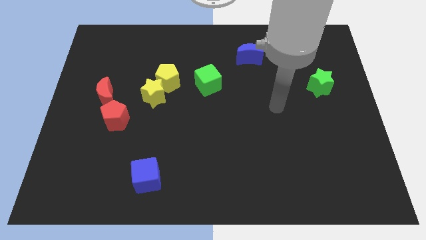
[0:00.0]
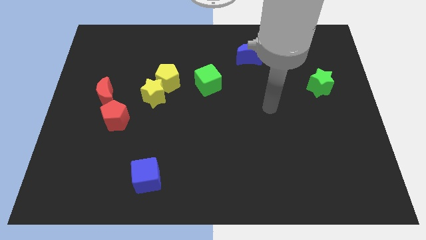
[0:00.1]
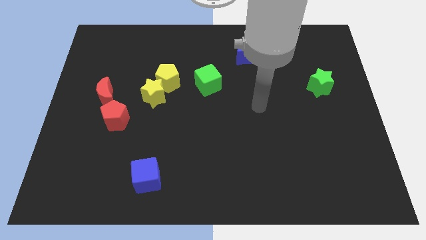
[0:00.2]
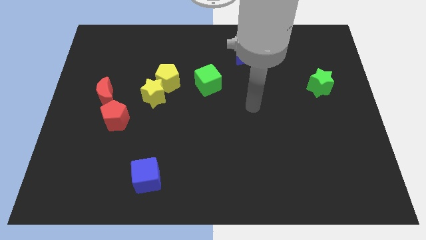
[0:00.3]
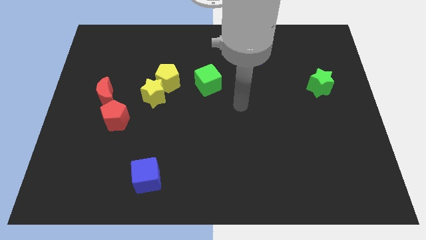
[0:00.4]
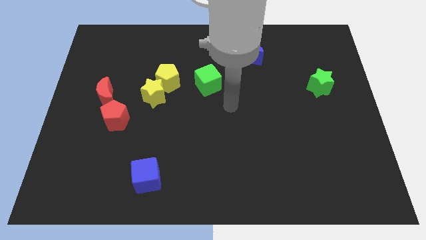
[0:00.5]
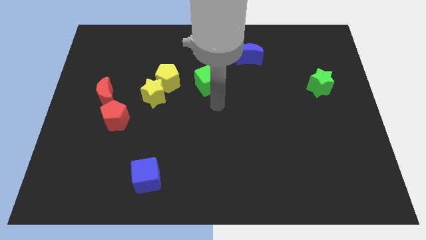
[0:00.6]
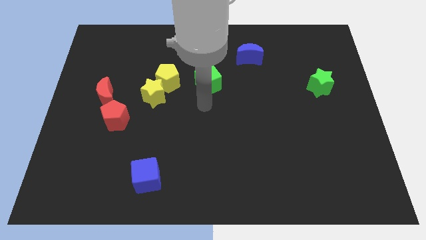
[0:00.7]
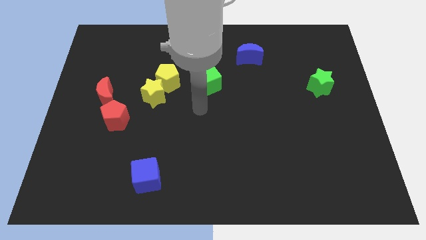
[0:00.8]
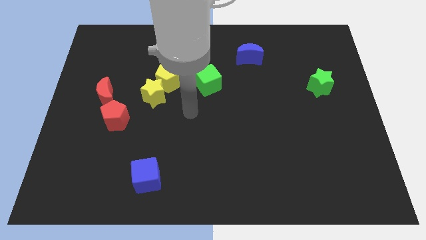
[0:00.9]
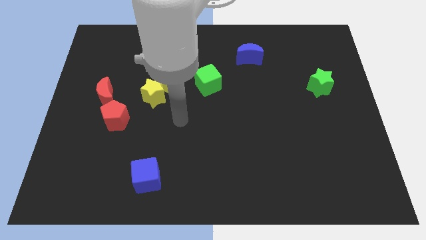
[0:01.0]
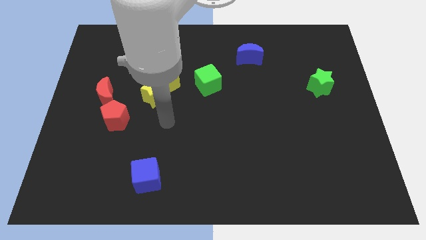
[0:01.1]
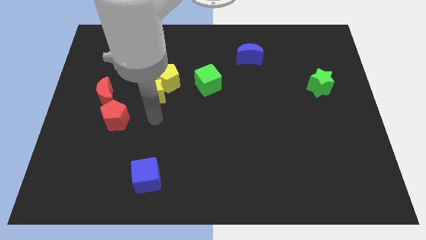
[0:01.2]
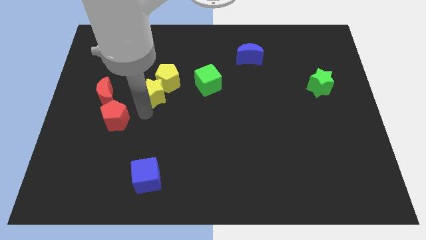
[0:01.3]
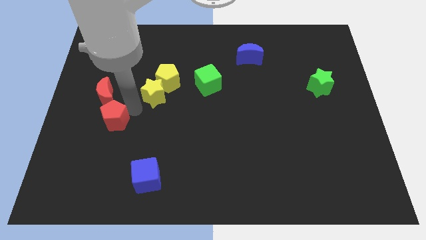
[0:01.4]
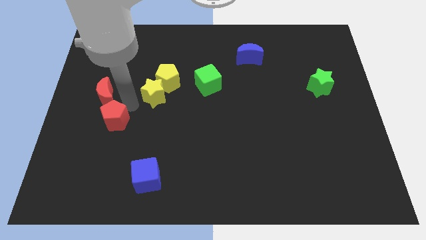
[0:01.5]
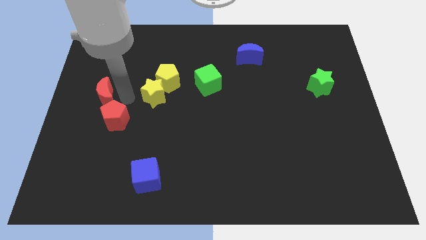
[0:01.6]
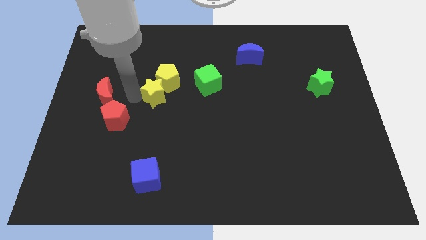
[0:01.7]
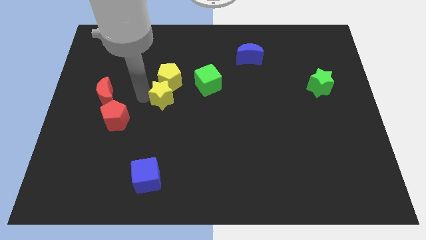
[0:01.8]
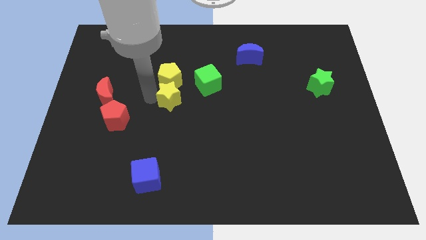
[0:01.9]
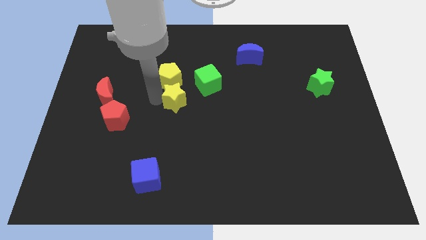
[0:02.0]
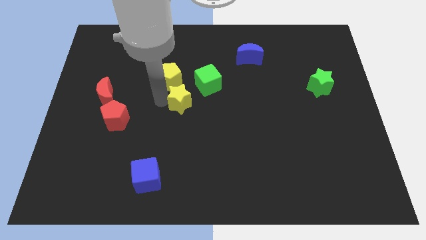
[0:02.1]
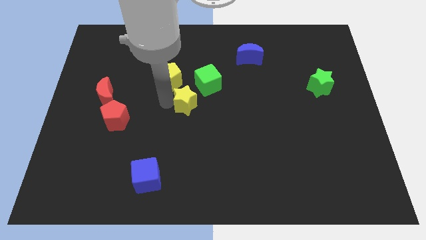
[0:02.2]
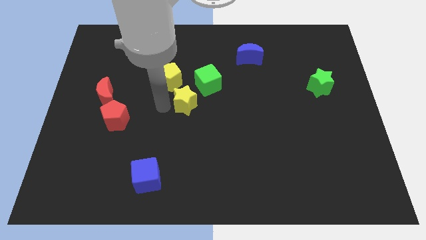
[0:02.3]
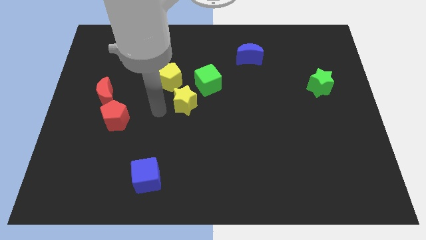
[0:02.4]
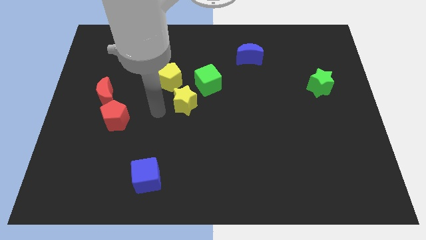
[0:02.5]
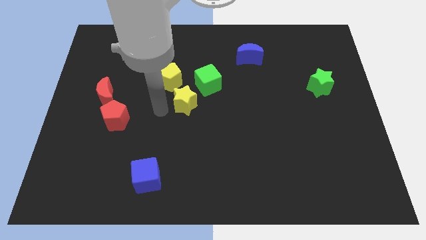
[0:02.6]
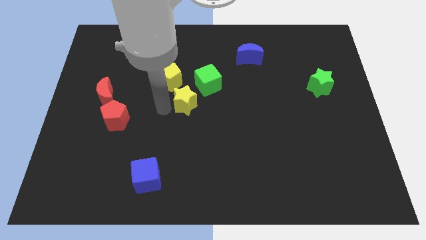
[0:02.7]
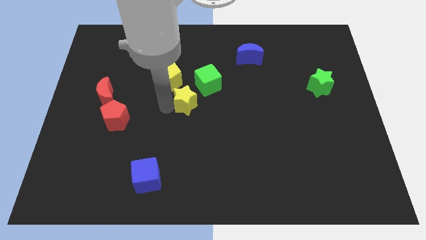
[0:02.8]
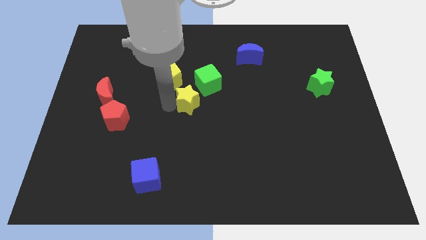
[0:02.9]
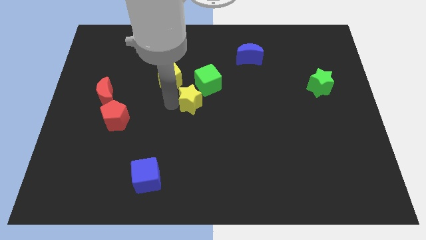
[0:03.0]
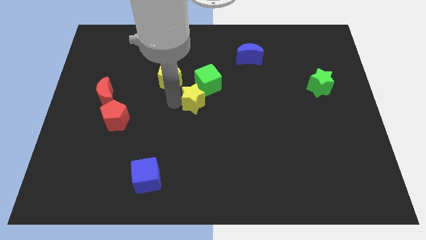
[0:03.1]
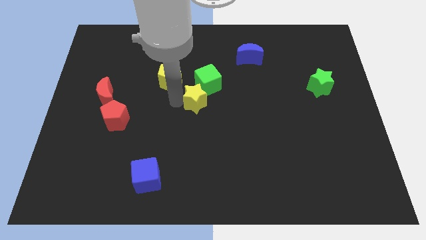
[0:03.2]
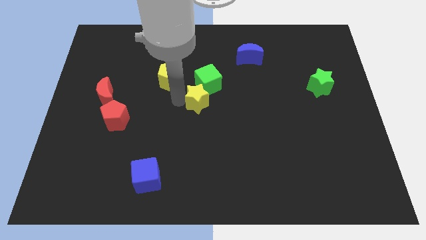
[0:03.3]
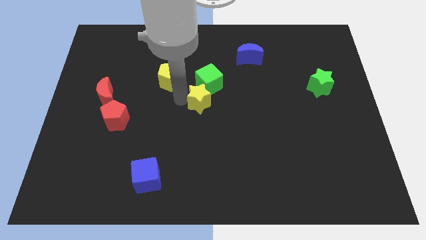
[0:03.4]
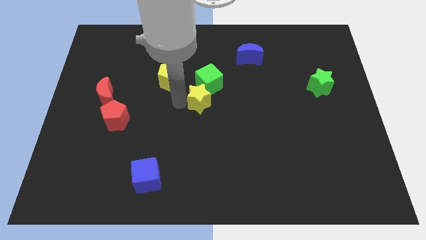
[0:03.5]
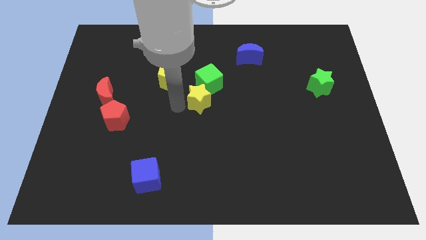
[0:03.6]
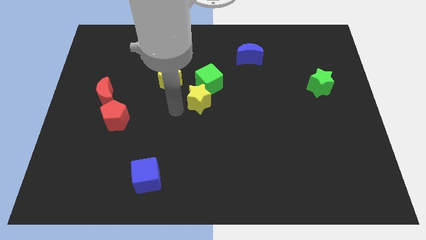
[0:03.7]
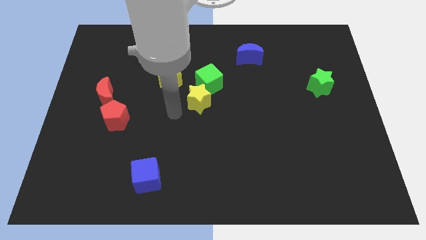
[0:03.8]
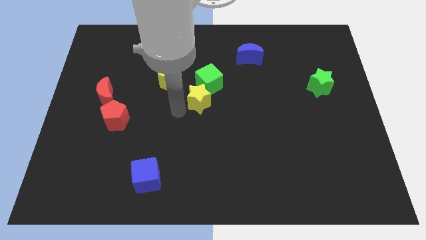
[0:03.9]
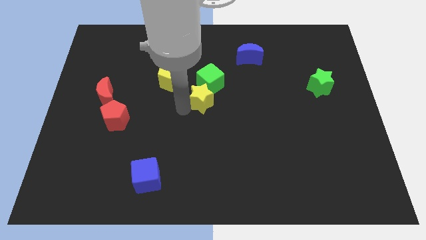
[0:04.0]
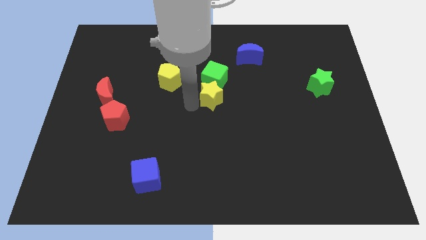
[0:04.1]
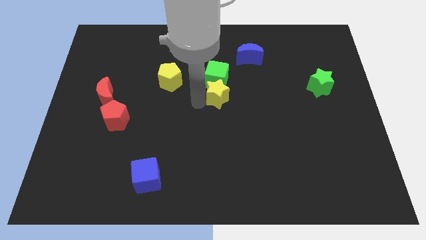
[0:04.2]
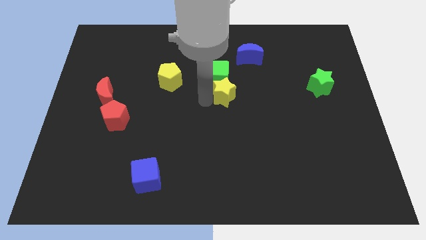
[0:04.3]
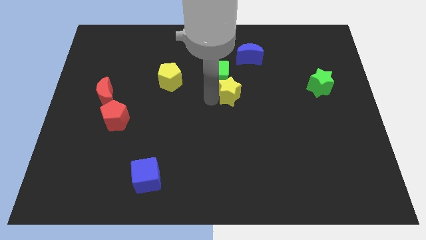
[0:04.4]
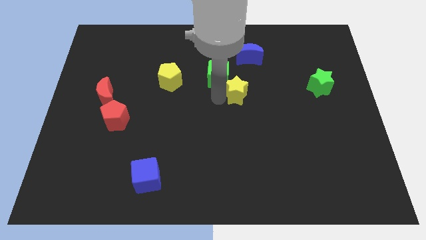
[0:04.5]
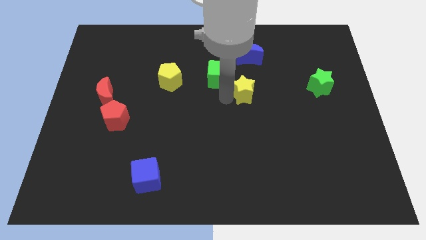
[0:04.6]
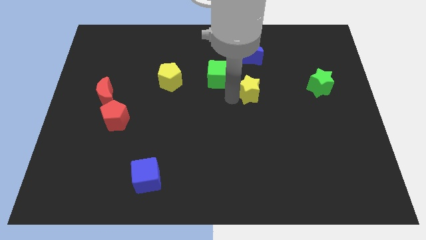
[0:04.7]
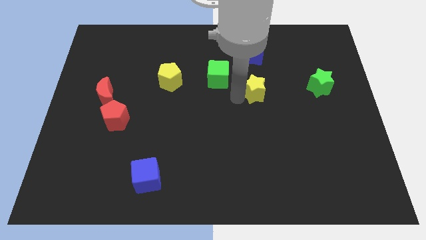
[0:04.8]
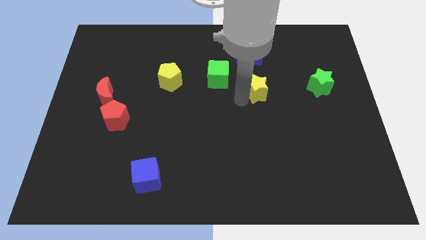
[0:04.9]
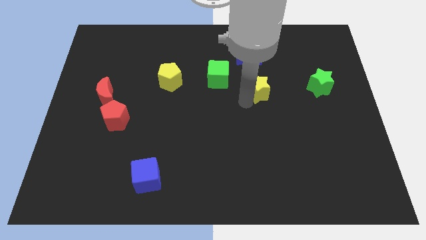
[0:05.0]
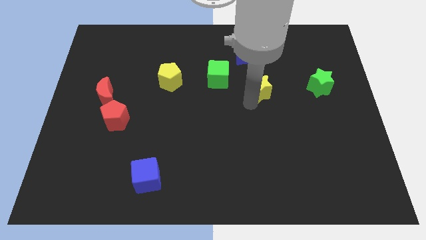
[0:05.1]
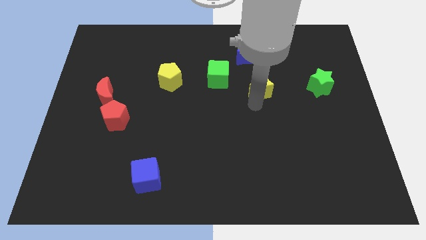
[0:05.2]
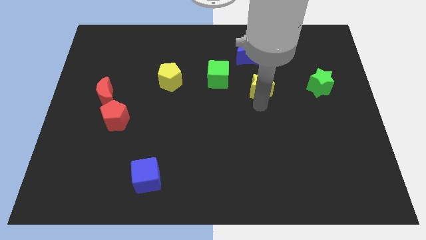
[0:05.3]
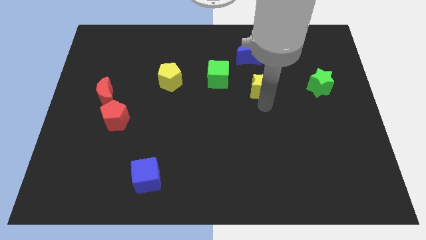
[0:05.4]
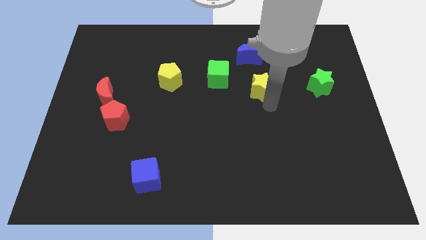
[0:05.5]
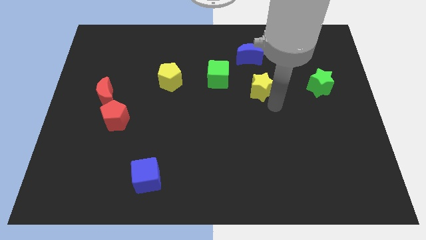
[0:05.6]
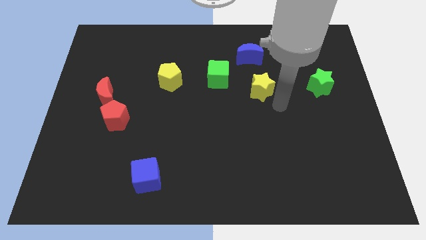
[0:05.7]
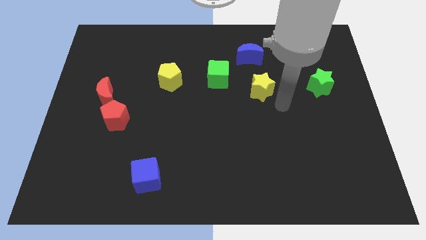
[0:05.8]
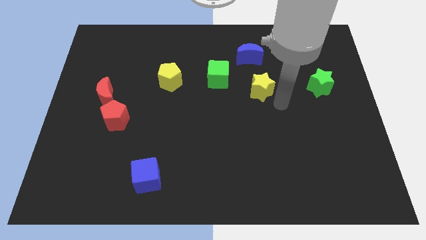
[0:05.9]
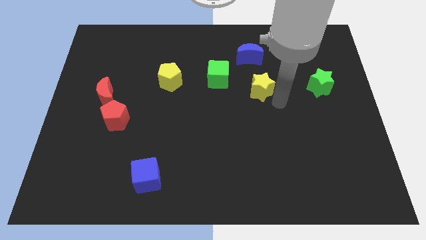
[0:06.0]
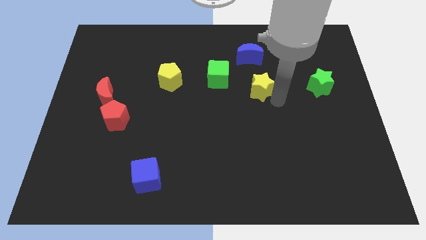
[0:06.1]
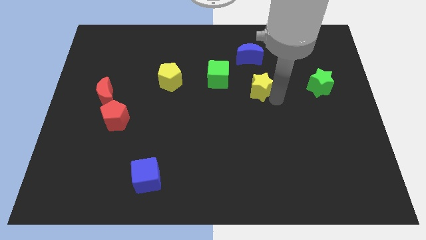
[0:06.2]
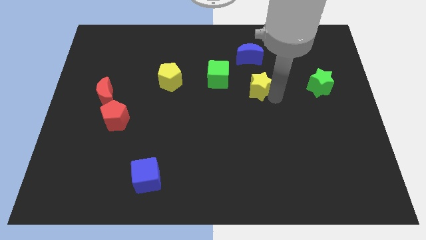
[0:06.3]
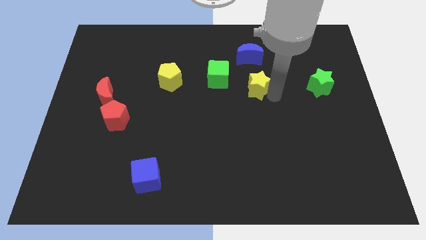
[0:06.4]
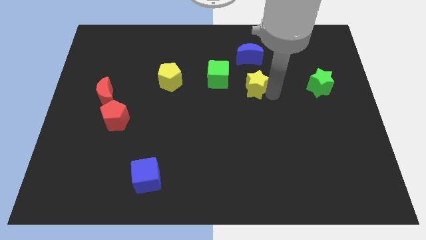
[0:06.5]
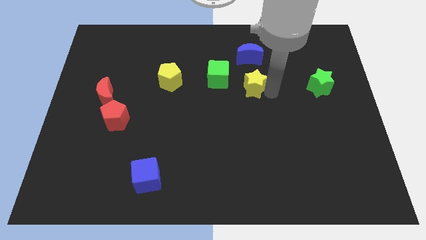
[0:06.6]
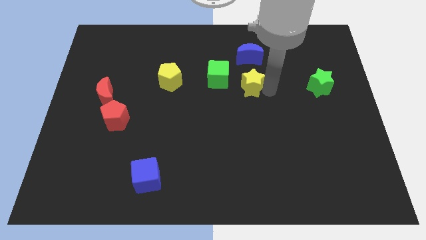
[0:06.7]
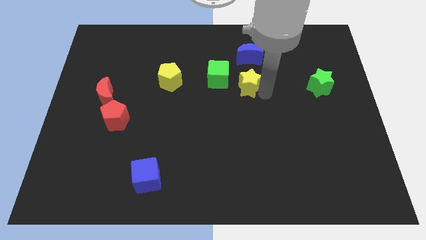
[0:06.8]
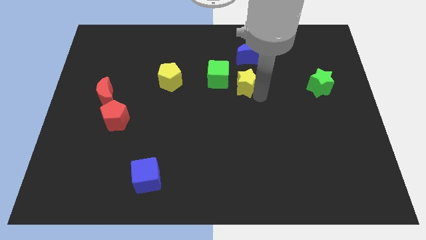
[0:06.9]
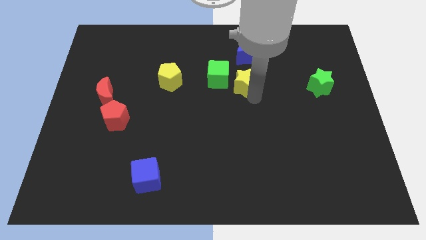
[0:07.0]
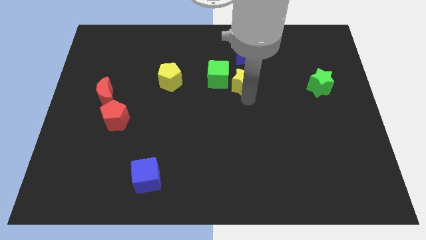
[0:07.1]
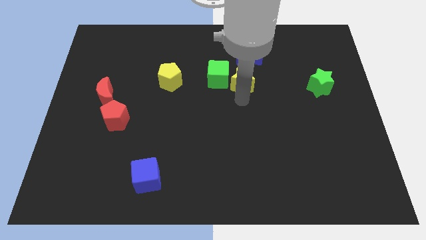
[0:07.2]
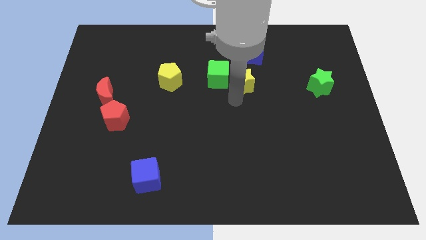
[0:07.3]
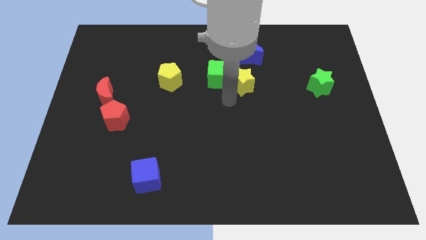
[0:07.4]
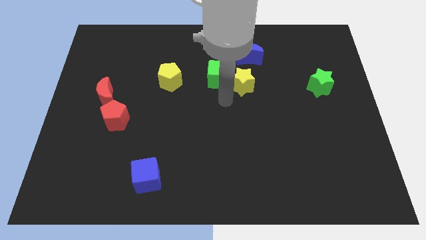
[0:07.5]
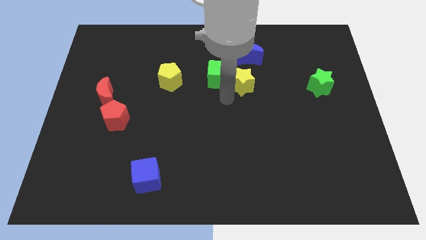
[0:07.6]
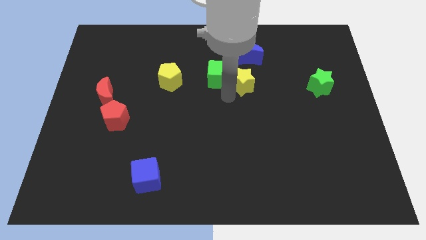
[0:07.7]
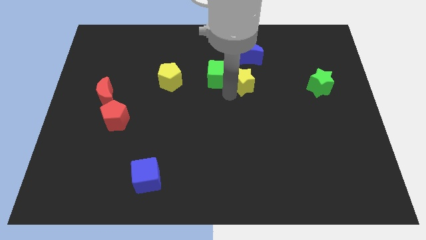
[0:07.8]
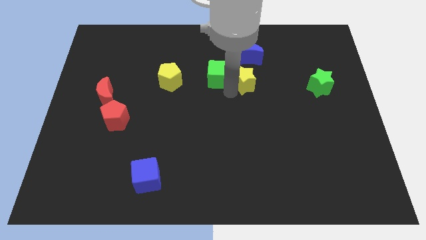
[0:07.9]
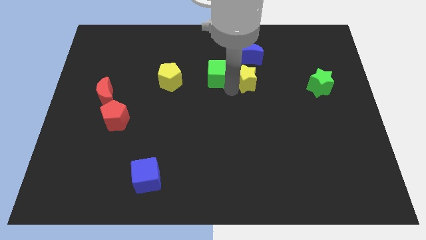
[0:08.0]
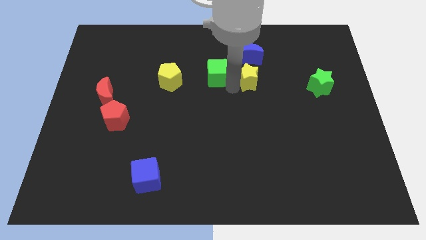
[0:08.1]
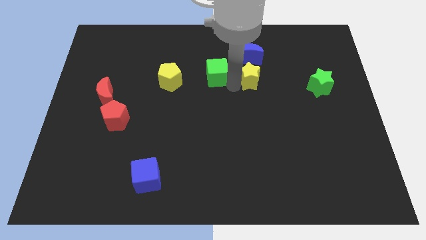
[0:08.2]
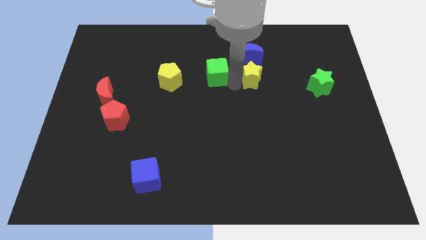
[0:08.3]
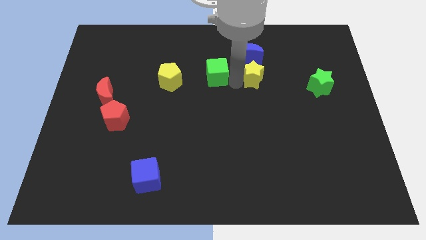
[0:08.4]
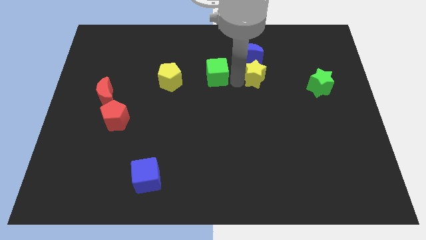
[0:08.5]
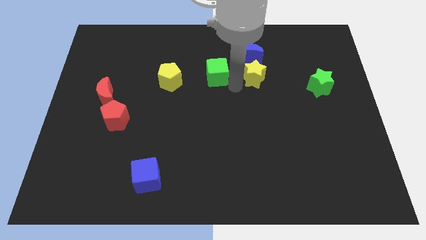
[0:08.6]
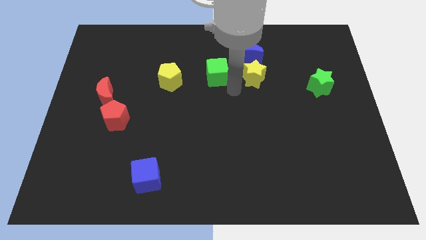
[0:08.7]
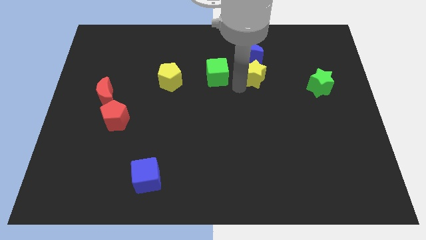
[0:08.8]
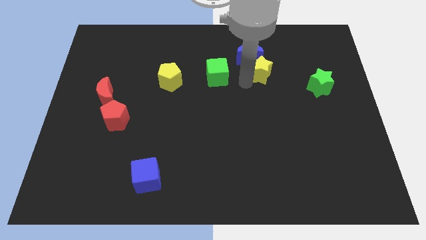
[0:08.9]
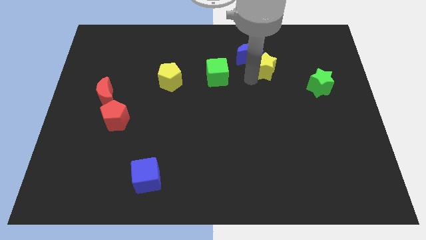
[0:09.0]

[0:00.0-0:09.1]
slide the yellow star to the right of the blue moon
